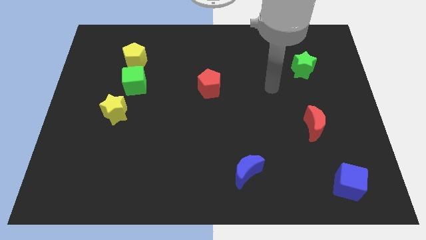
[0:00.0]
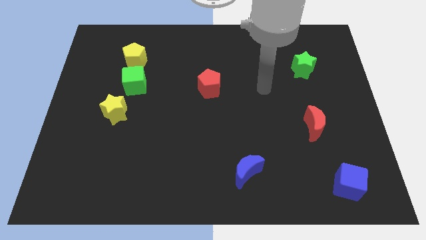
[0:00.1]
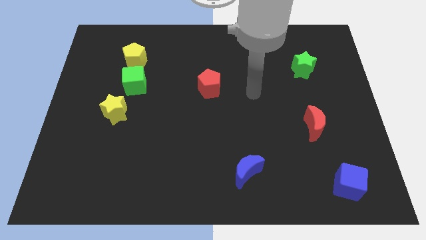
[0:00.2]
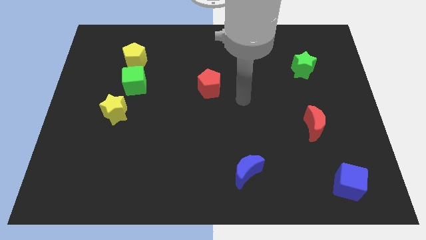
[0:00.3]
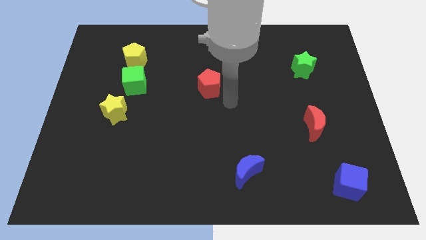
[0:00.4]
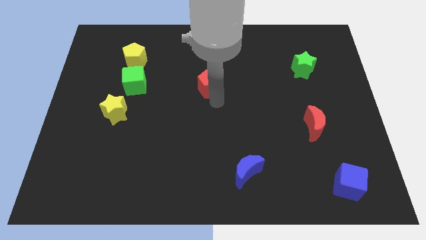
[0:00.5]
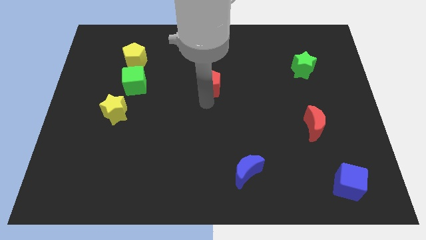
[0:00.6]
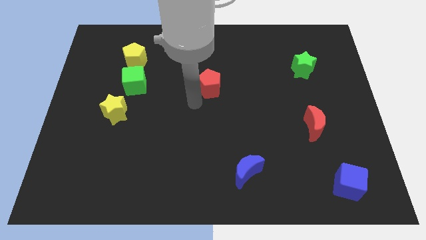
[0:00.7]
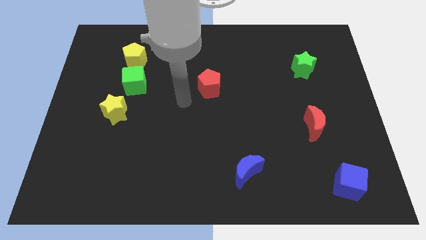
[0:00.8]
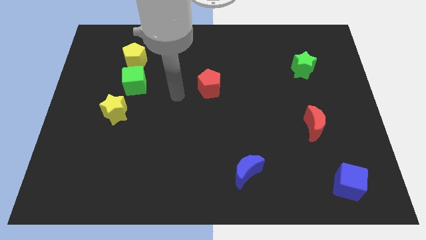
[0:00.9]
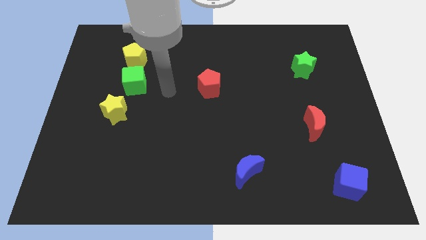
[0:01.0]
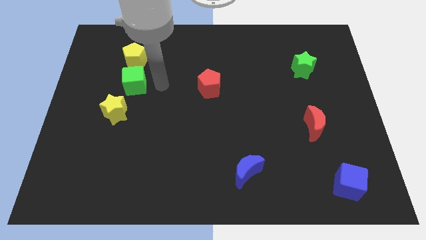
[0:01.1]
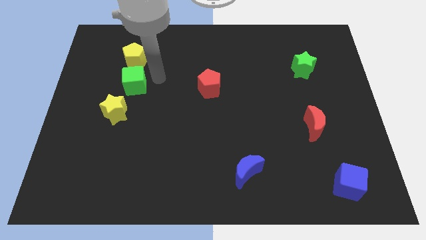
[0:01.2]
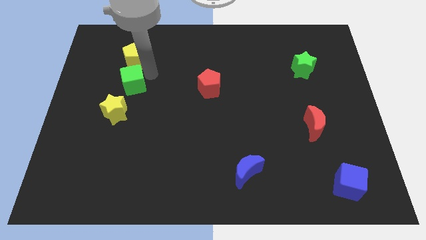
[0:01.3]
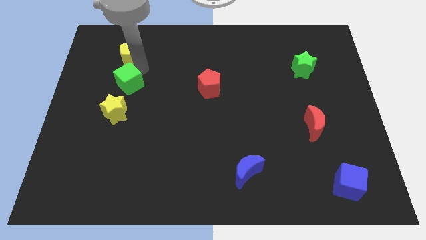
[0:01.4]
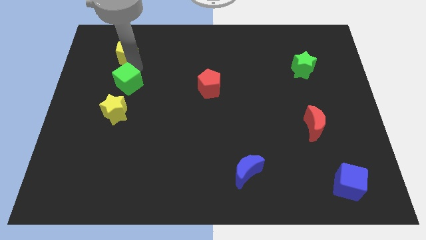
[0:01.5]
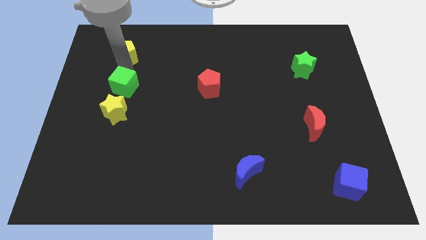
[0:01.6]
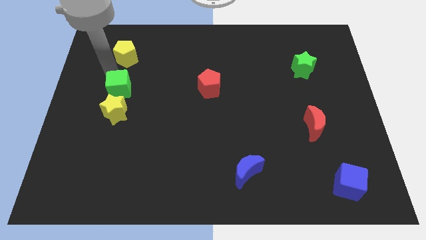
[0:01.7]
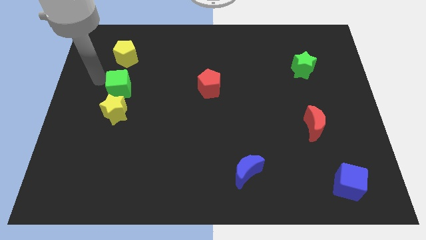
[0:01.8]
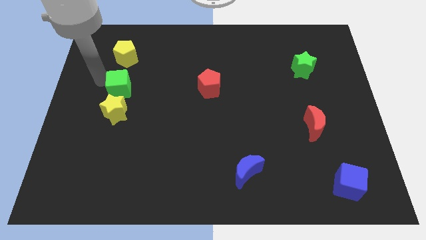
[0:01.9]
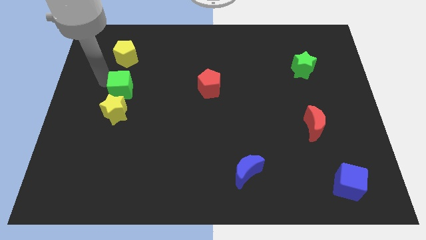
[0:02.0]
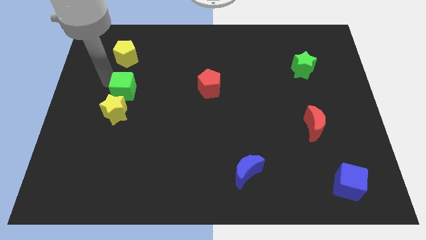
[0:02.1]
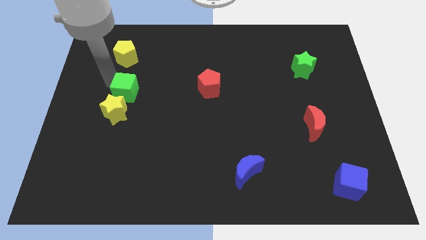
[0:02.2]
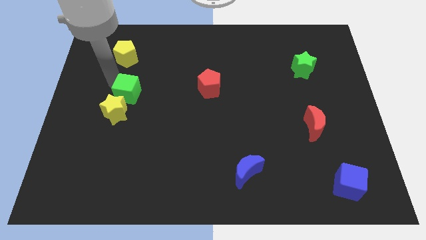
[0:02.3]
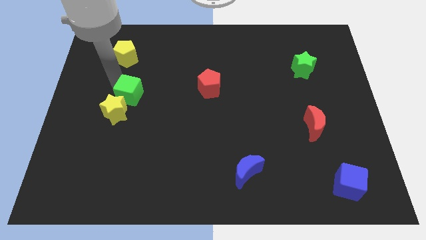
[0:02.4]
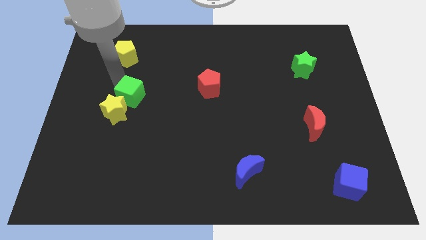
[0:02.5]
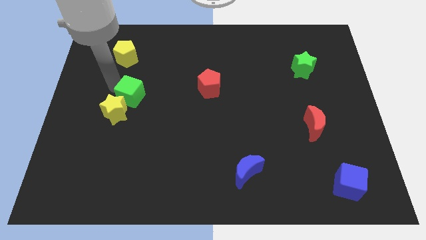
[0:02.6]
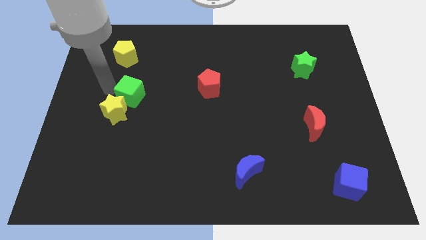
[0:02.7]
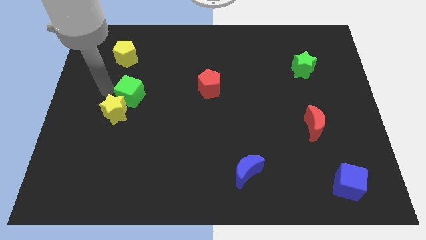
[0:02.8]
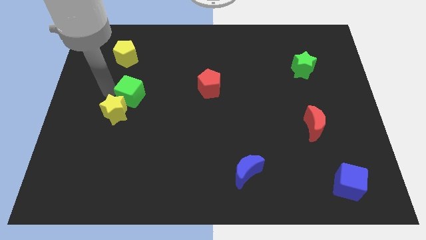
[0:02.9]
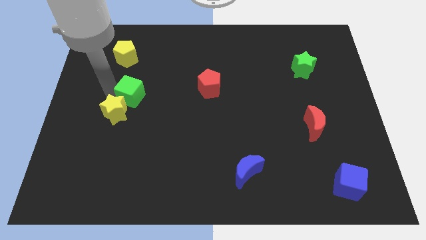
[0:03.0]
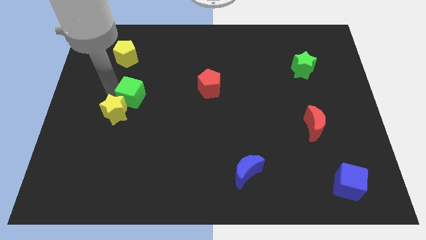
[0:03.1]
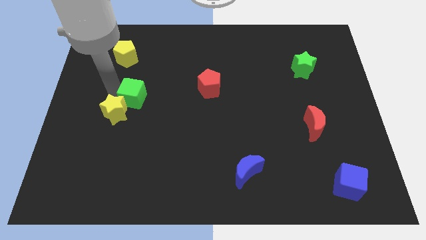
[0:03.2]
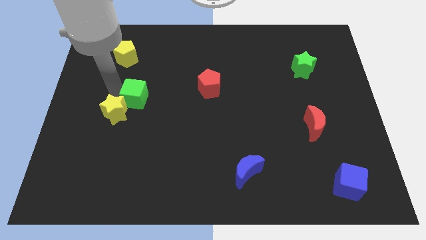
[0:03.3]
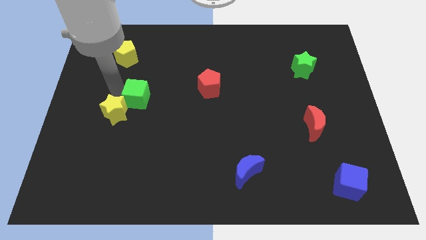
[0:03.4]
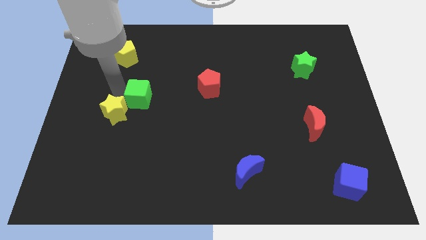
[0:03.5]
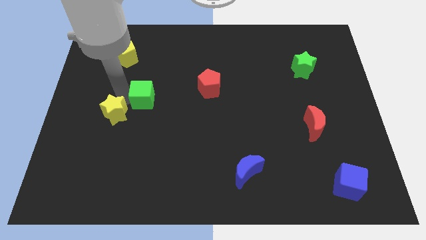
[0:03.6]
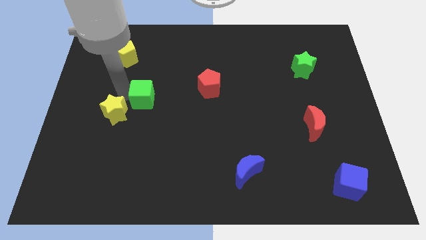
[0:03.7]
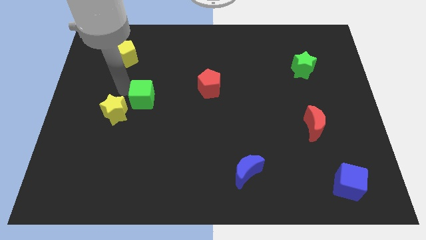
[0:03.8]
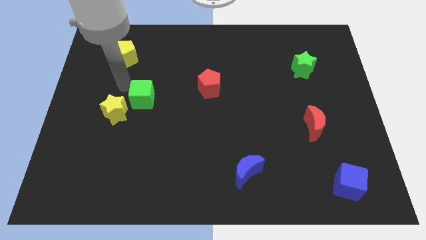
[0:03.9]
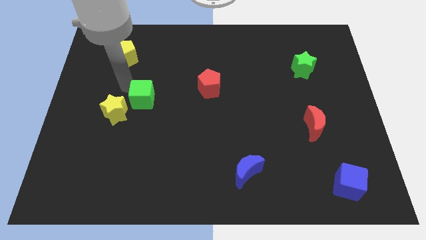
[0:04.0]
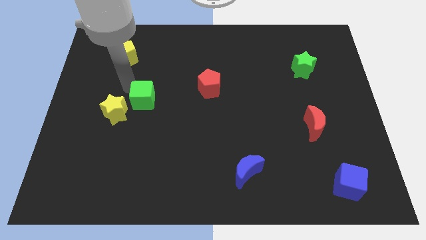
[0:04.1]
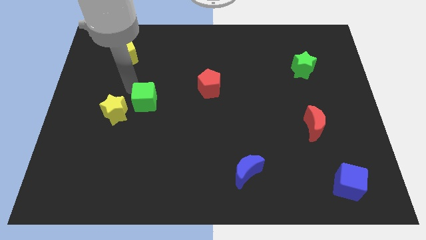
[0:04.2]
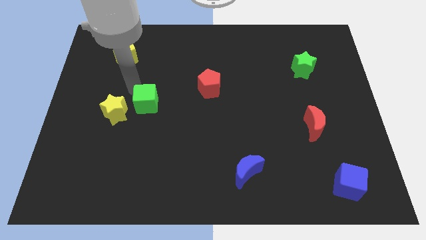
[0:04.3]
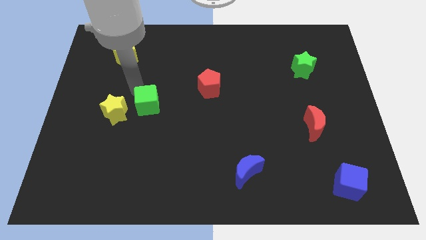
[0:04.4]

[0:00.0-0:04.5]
push the green cube diagonally downwards and to the right a little

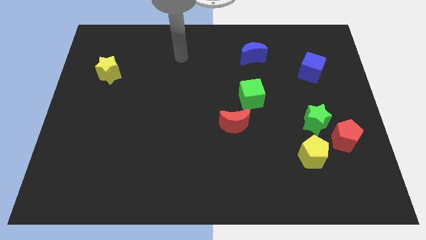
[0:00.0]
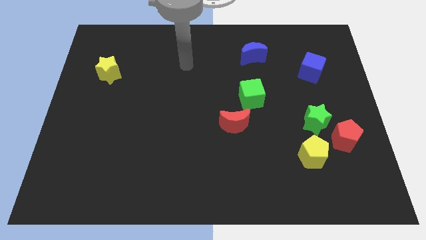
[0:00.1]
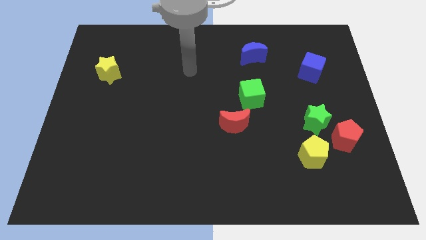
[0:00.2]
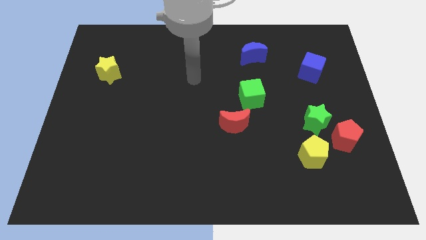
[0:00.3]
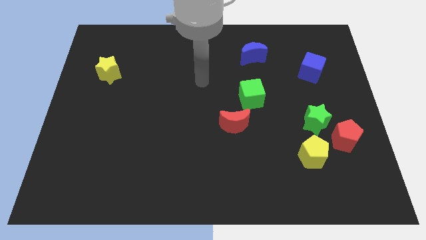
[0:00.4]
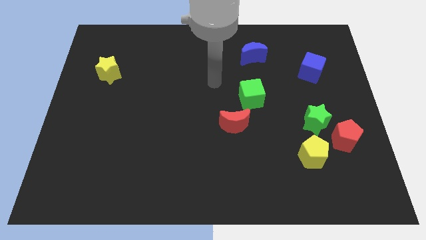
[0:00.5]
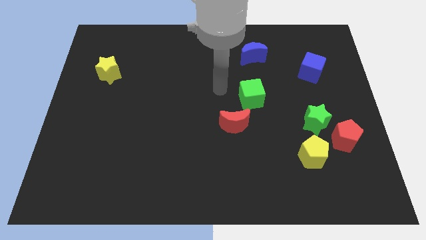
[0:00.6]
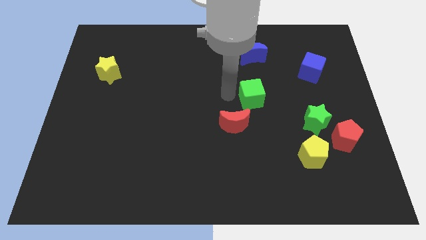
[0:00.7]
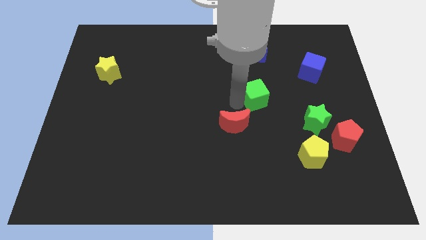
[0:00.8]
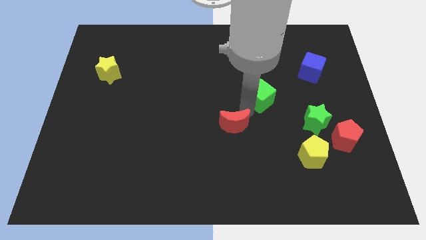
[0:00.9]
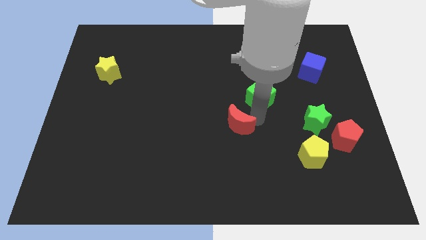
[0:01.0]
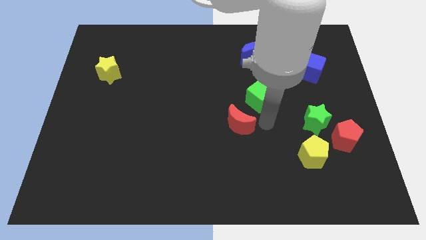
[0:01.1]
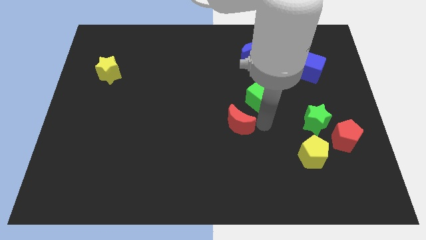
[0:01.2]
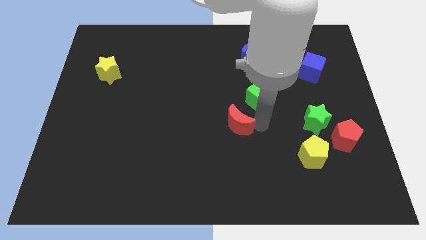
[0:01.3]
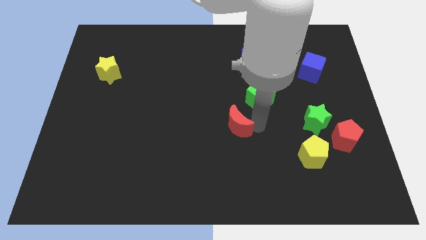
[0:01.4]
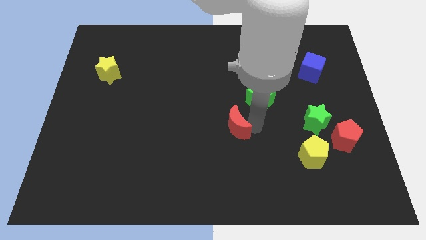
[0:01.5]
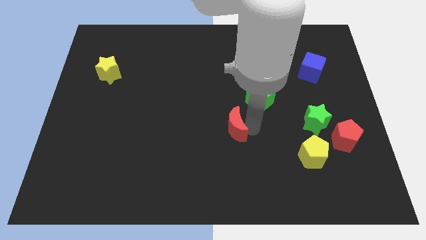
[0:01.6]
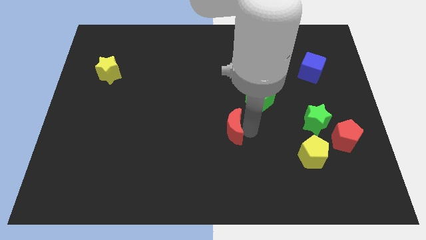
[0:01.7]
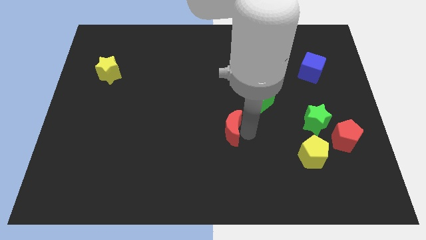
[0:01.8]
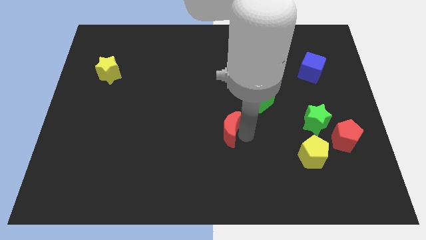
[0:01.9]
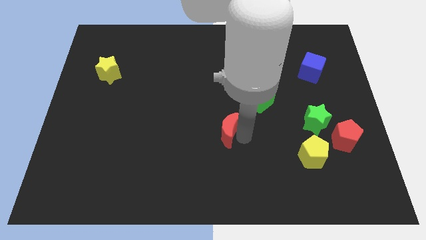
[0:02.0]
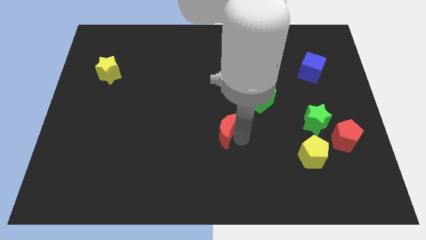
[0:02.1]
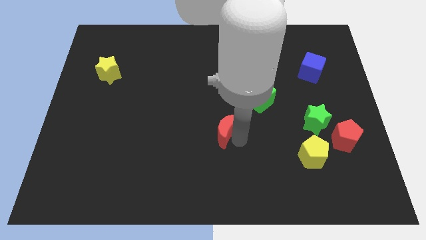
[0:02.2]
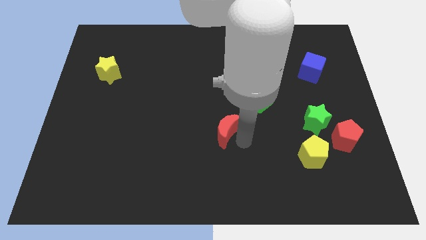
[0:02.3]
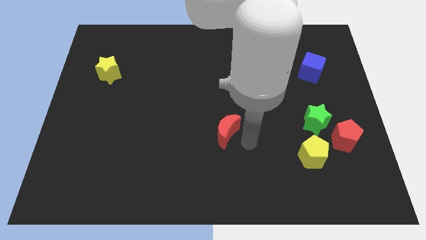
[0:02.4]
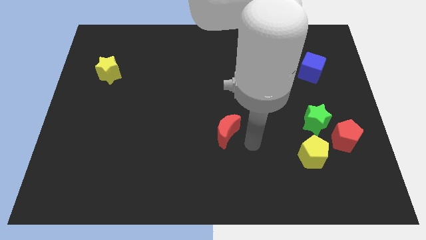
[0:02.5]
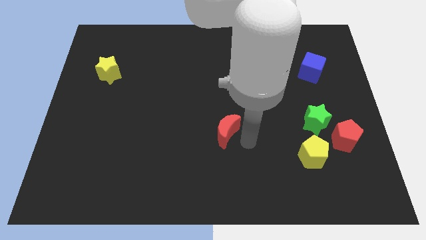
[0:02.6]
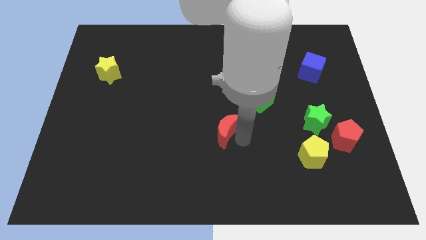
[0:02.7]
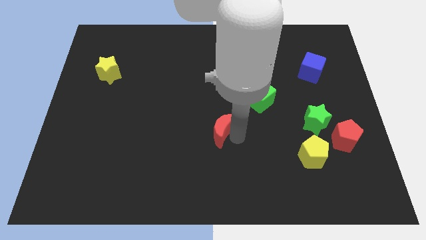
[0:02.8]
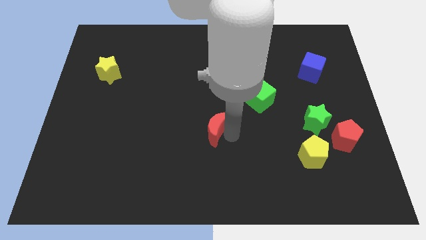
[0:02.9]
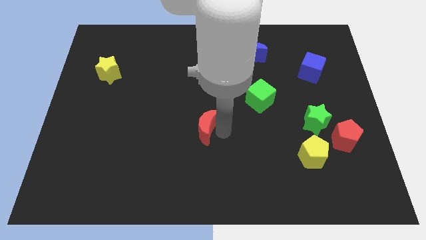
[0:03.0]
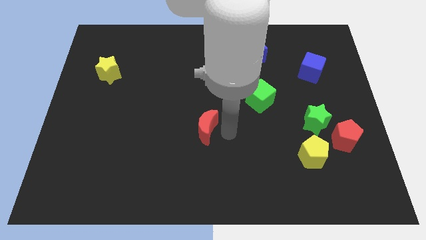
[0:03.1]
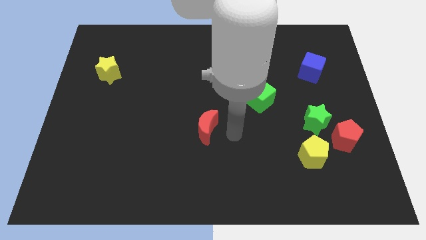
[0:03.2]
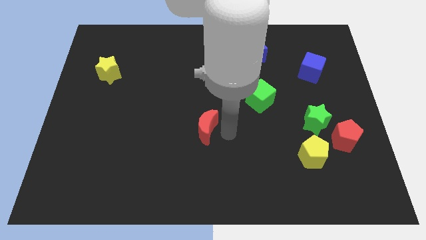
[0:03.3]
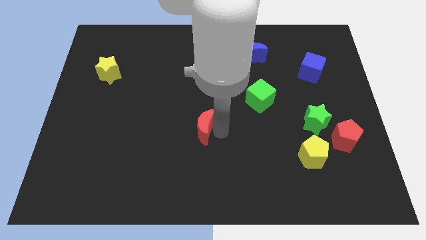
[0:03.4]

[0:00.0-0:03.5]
move the red moon somewhat to the left

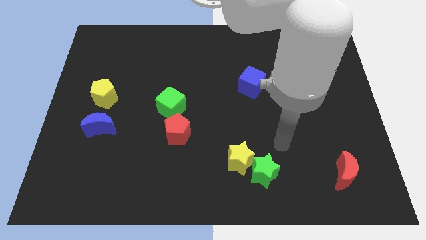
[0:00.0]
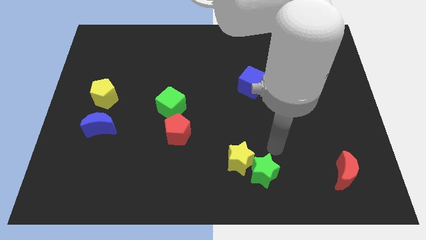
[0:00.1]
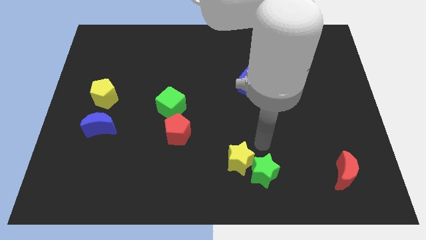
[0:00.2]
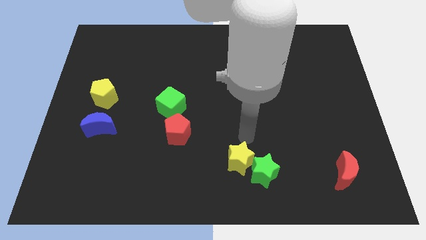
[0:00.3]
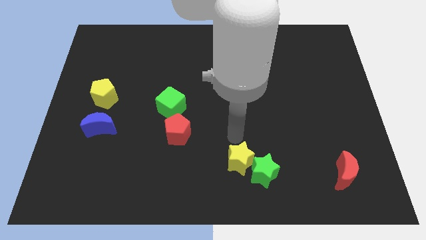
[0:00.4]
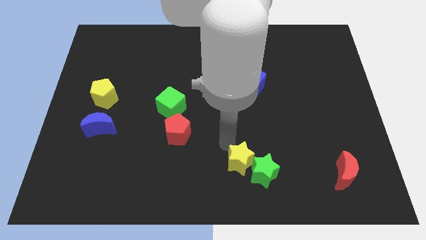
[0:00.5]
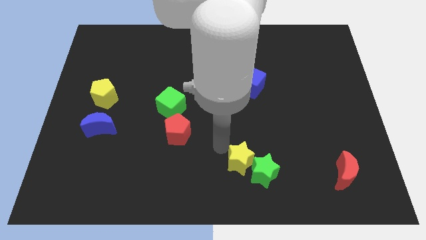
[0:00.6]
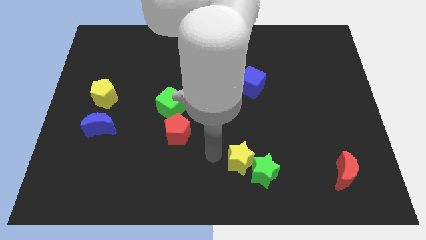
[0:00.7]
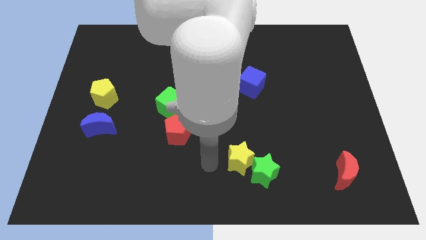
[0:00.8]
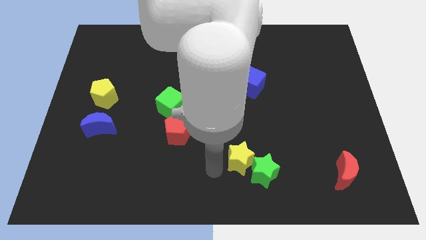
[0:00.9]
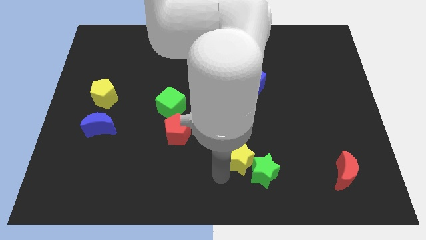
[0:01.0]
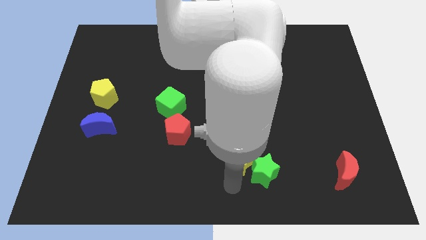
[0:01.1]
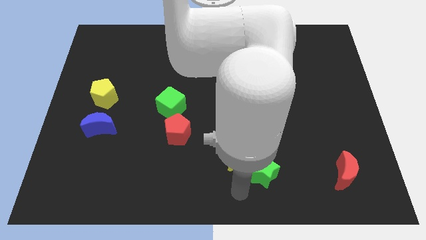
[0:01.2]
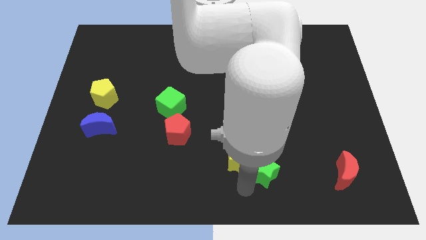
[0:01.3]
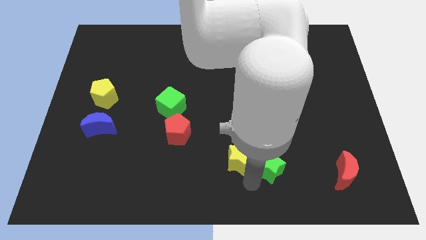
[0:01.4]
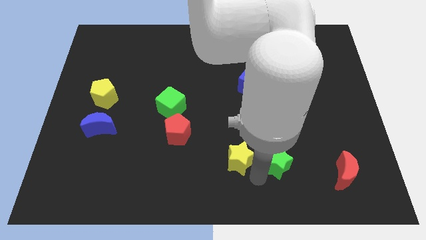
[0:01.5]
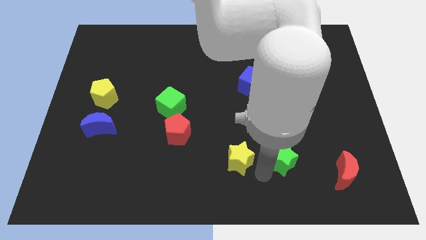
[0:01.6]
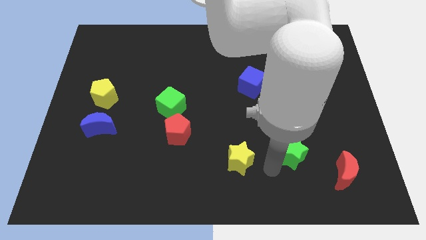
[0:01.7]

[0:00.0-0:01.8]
move the green star somewhat up and to the right diagonally
